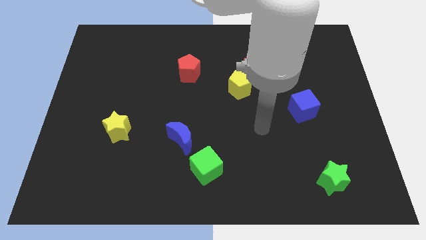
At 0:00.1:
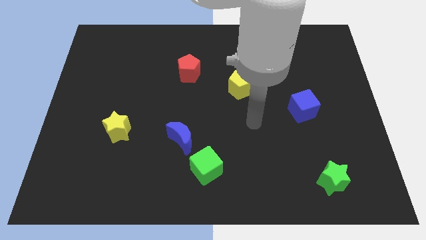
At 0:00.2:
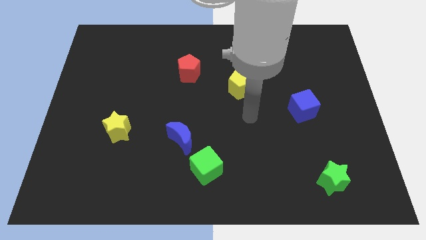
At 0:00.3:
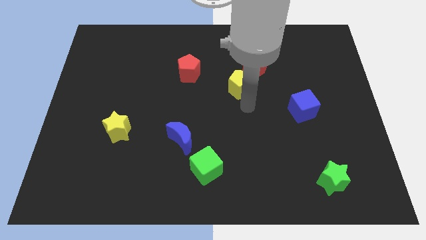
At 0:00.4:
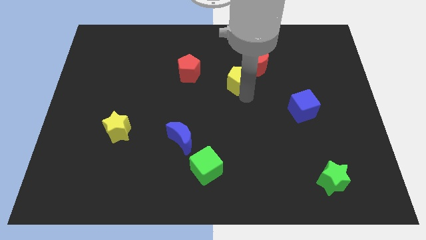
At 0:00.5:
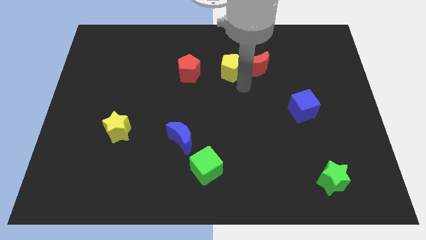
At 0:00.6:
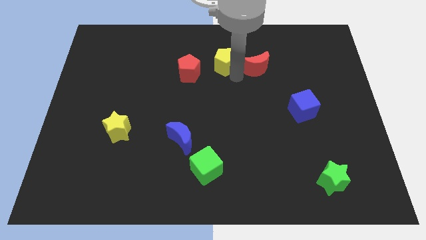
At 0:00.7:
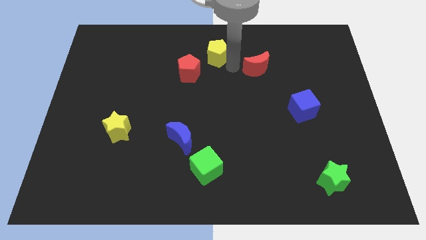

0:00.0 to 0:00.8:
separate the red moon from the yellow pentagon

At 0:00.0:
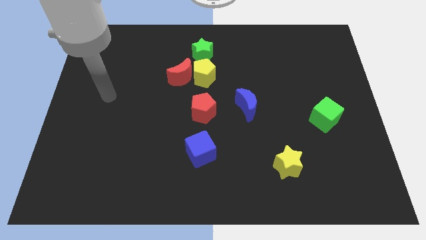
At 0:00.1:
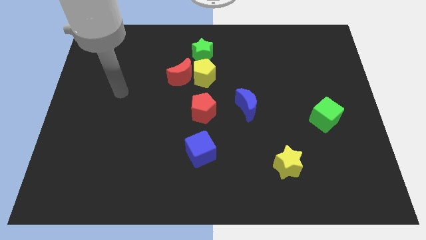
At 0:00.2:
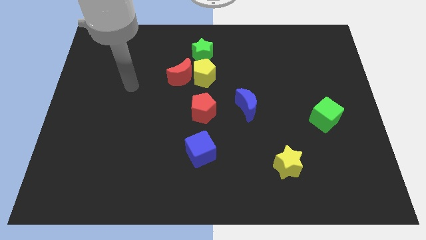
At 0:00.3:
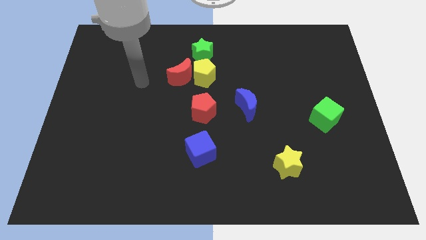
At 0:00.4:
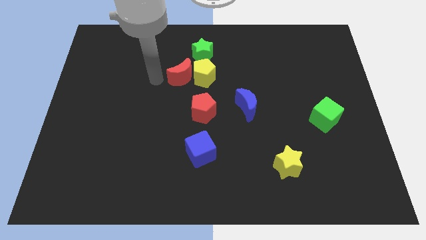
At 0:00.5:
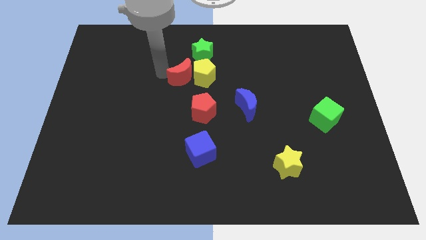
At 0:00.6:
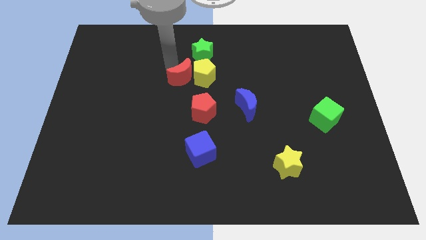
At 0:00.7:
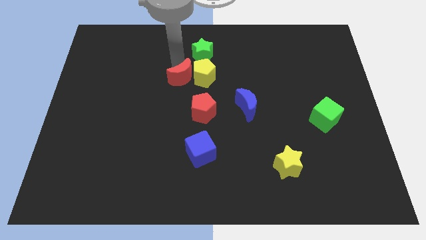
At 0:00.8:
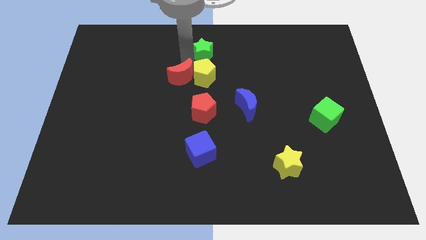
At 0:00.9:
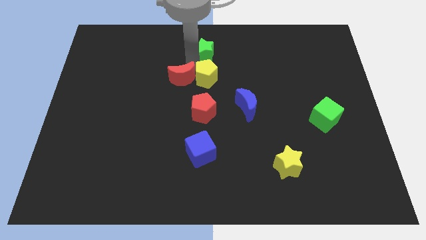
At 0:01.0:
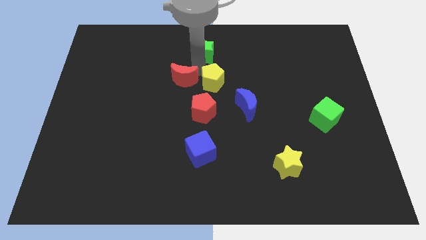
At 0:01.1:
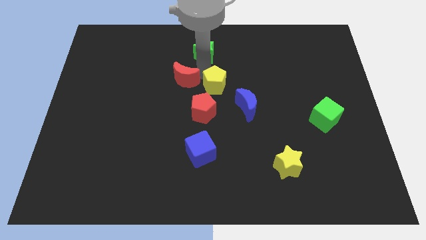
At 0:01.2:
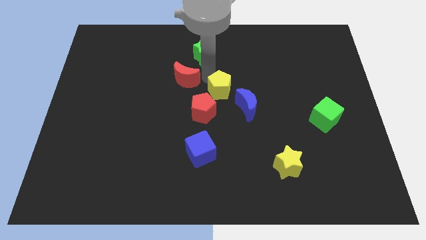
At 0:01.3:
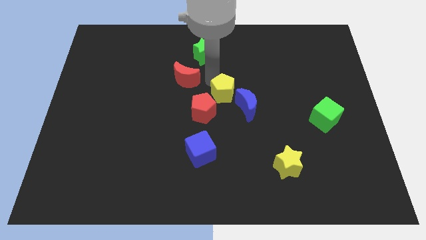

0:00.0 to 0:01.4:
pull the yellow pentagon apart from the red moon and green star

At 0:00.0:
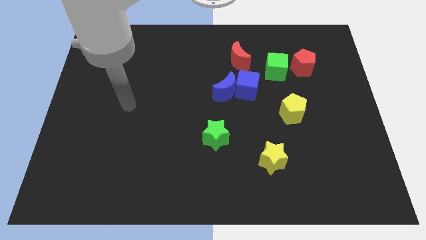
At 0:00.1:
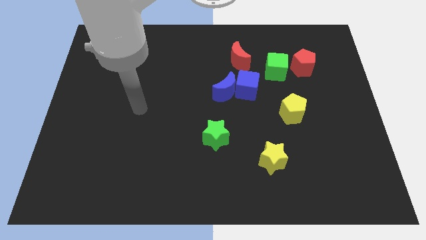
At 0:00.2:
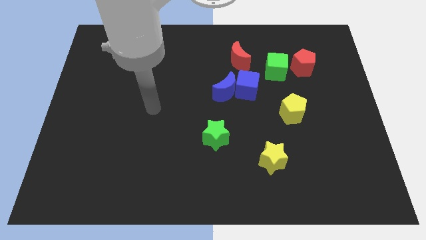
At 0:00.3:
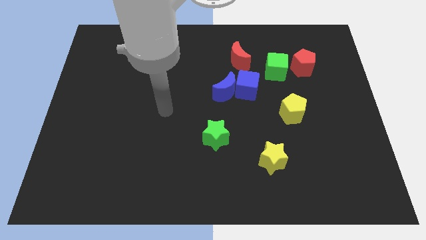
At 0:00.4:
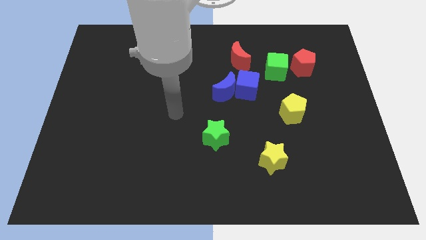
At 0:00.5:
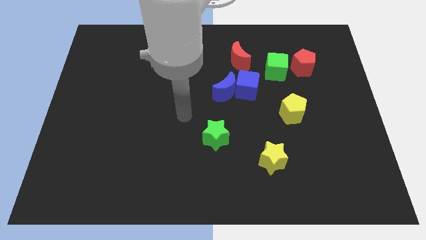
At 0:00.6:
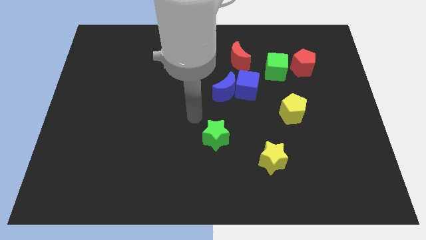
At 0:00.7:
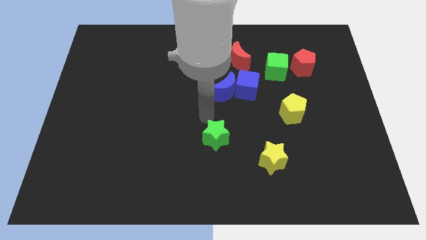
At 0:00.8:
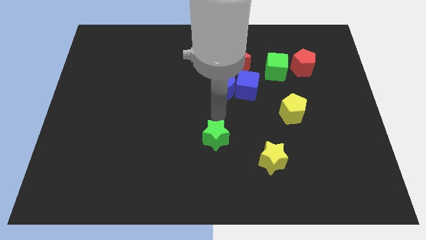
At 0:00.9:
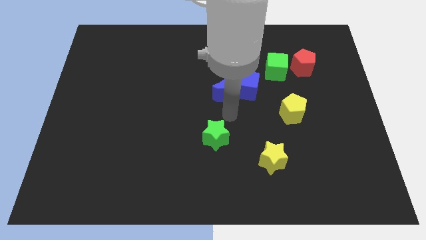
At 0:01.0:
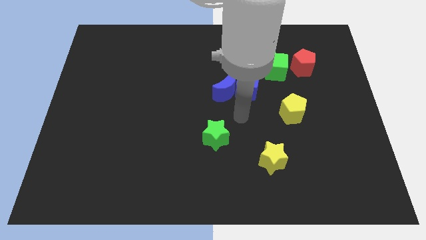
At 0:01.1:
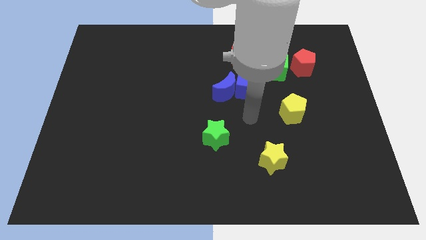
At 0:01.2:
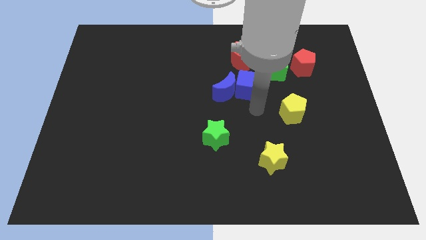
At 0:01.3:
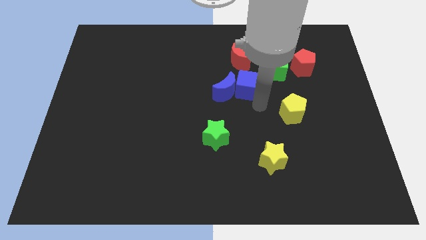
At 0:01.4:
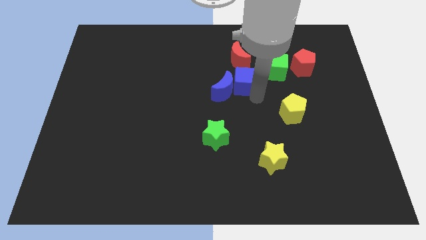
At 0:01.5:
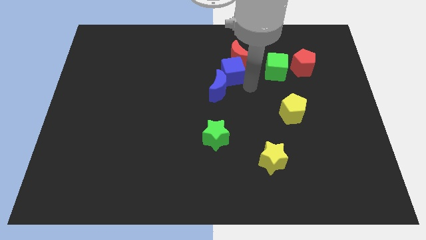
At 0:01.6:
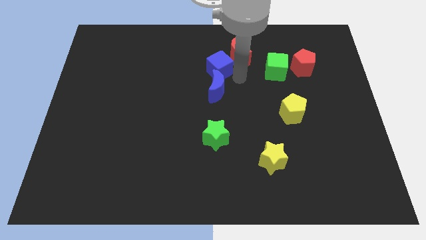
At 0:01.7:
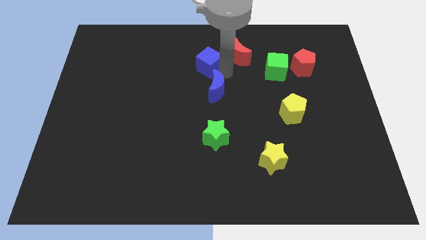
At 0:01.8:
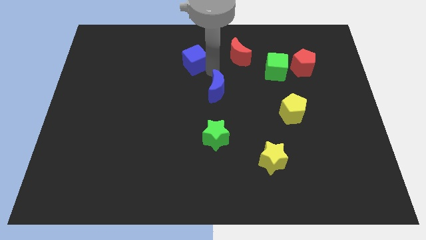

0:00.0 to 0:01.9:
move the blue moon away from the blue cube

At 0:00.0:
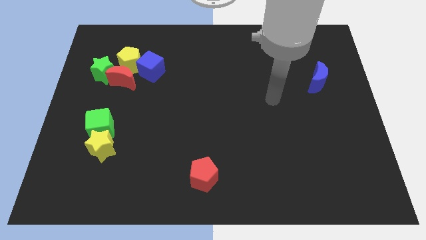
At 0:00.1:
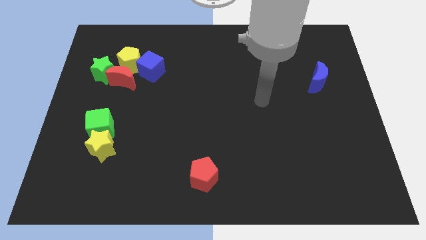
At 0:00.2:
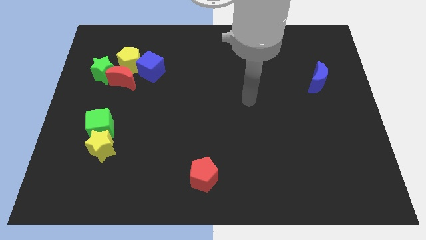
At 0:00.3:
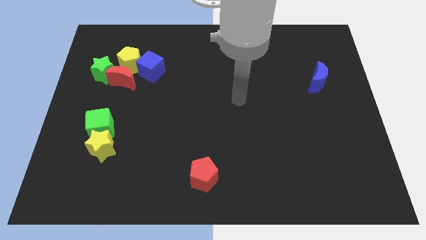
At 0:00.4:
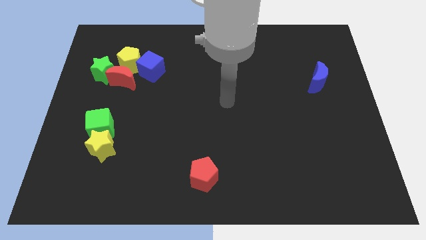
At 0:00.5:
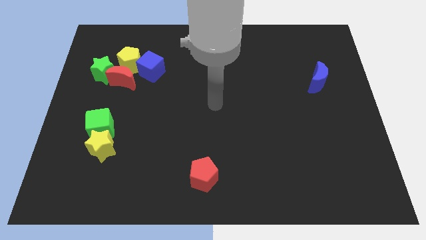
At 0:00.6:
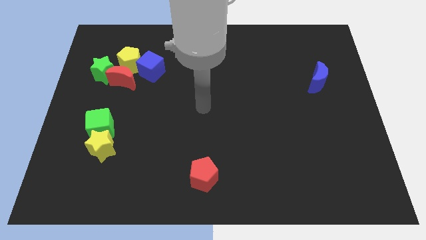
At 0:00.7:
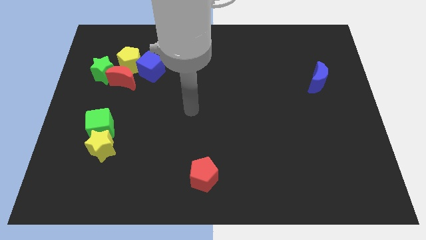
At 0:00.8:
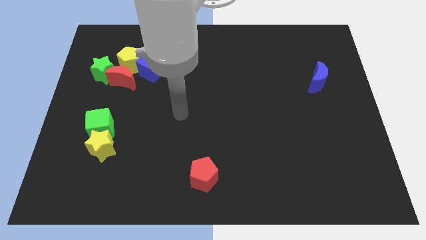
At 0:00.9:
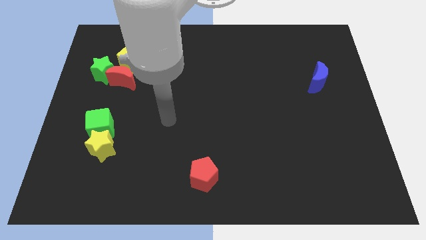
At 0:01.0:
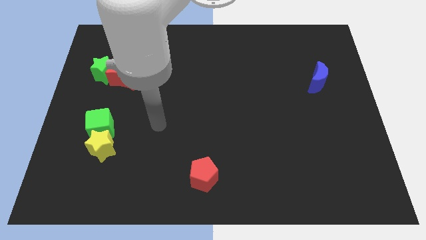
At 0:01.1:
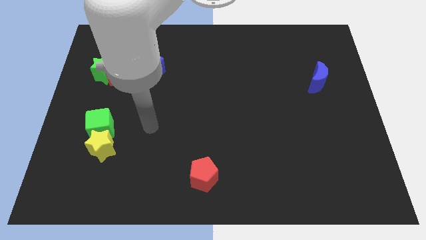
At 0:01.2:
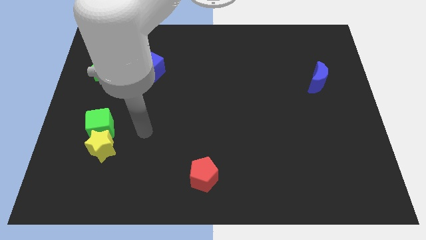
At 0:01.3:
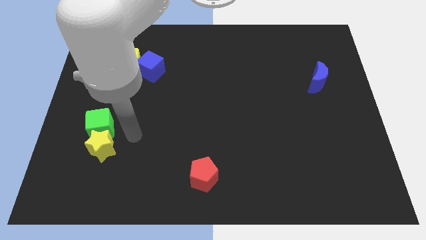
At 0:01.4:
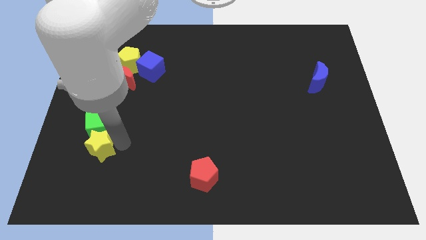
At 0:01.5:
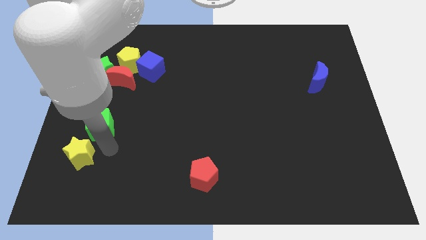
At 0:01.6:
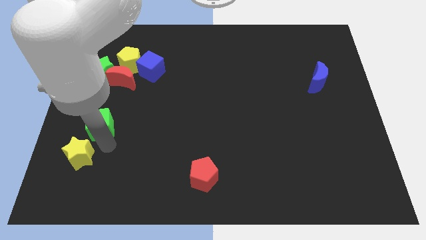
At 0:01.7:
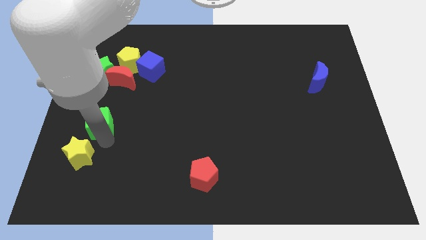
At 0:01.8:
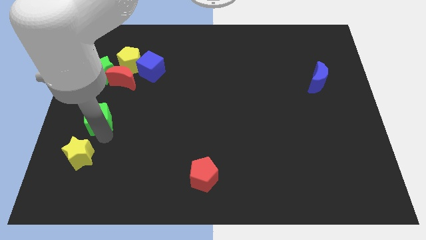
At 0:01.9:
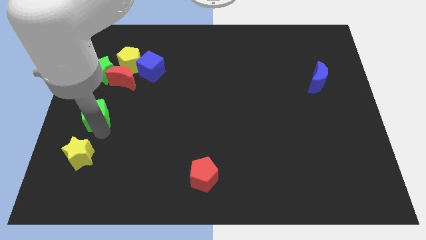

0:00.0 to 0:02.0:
move the green cube away from the yellow star

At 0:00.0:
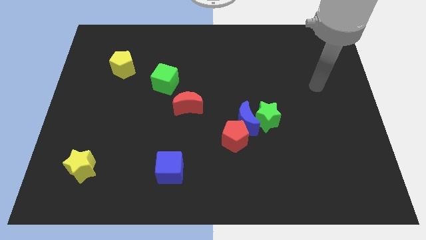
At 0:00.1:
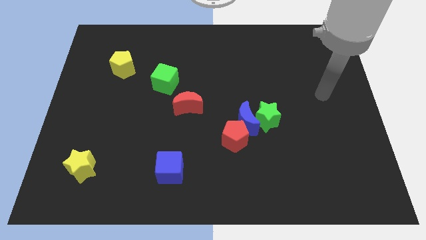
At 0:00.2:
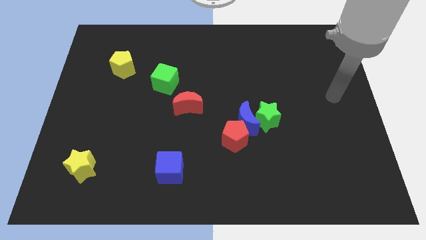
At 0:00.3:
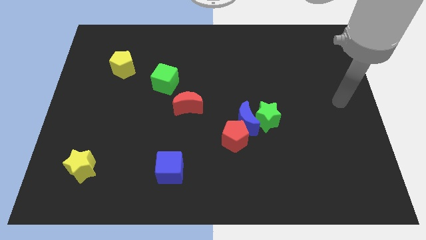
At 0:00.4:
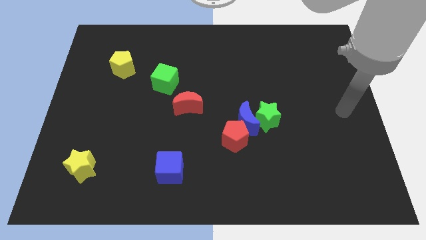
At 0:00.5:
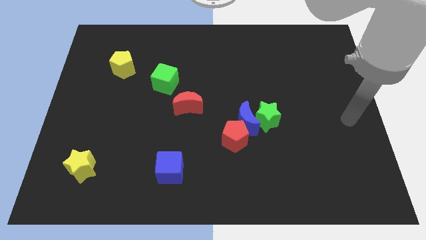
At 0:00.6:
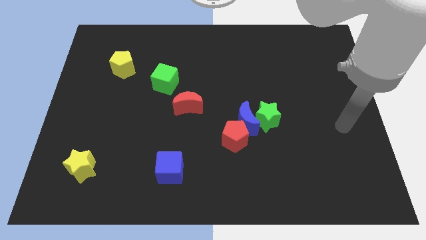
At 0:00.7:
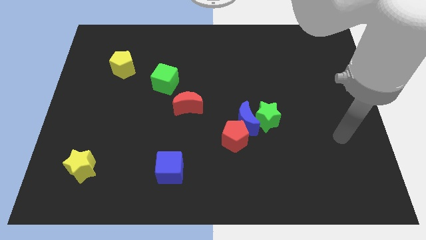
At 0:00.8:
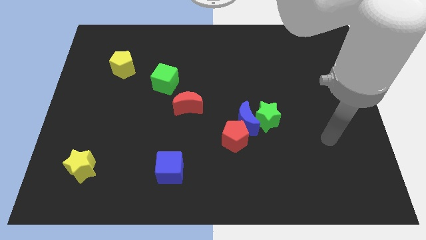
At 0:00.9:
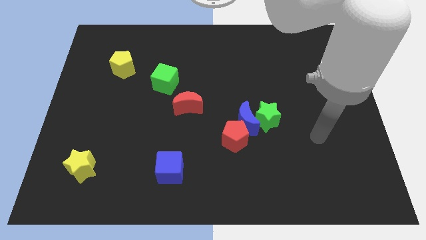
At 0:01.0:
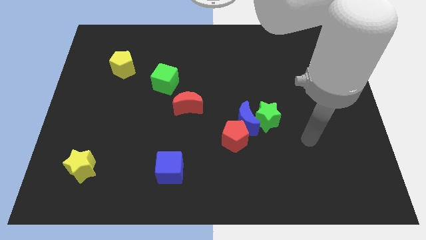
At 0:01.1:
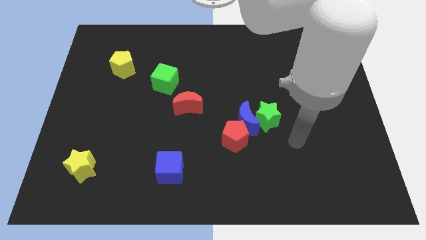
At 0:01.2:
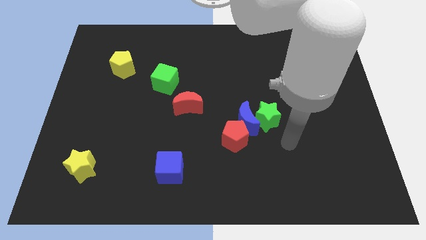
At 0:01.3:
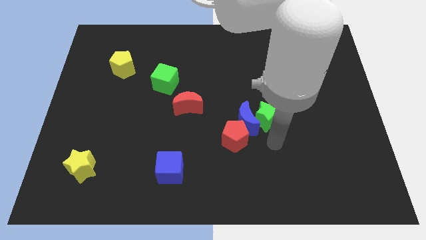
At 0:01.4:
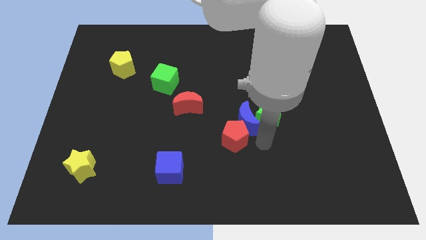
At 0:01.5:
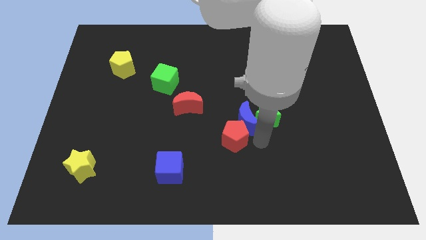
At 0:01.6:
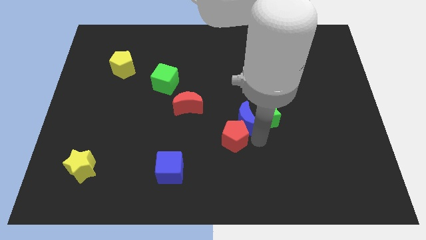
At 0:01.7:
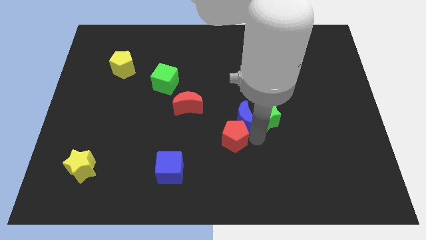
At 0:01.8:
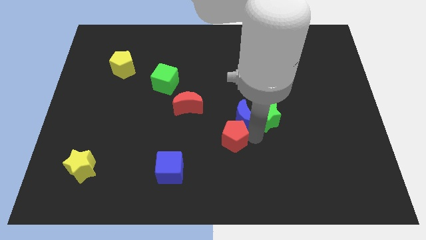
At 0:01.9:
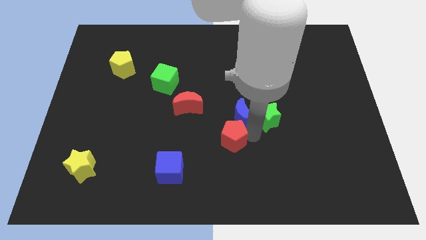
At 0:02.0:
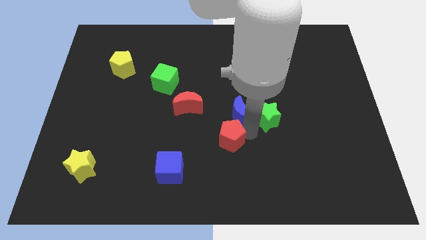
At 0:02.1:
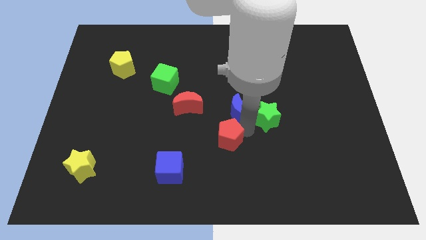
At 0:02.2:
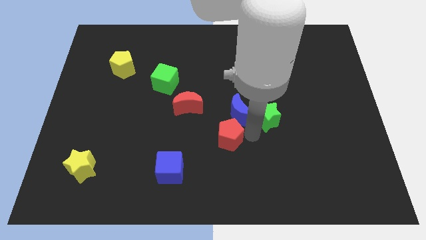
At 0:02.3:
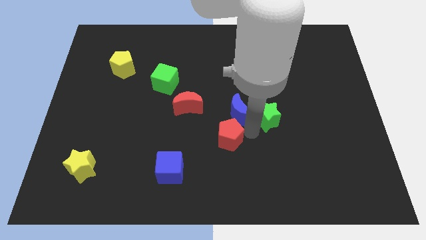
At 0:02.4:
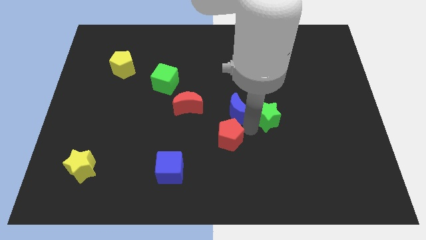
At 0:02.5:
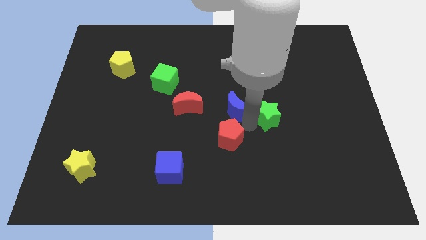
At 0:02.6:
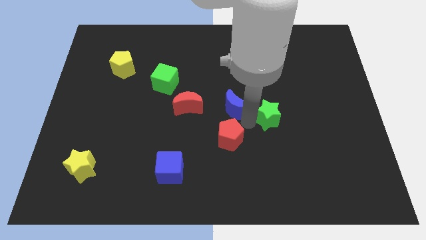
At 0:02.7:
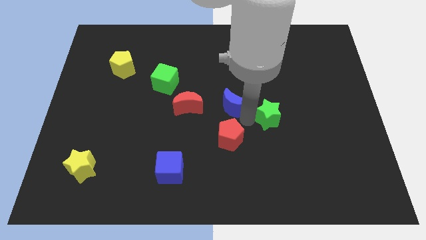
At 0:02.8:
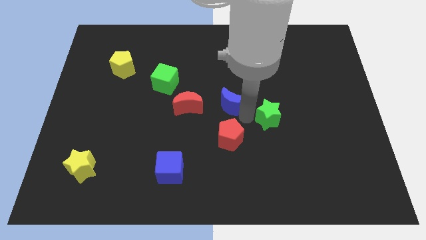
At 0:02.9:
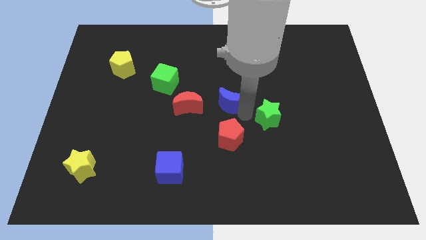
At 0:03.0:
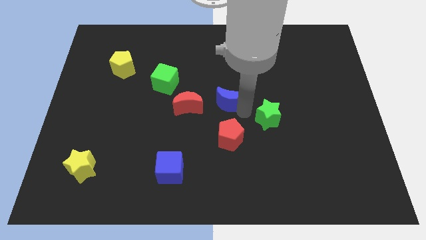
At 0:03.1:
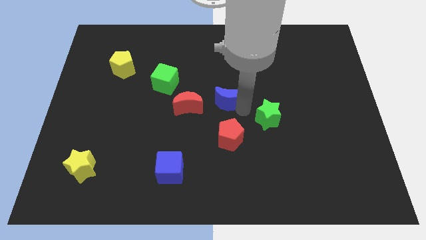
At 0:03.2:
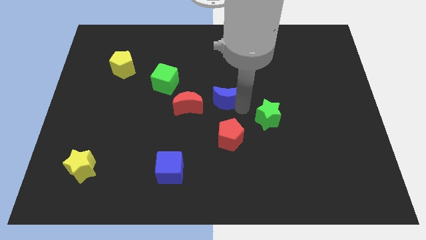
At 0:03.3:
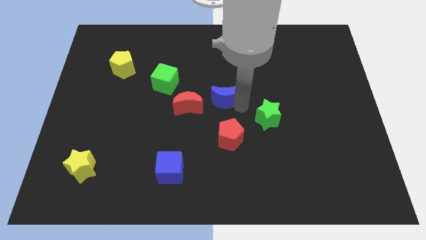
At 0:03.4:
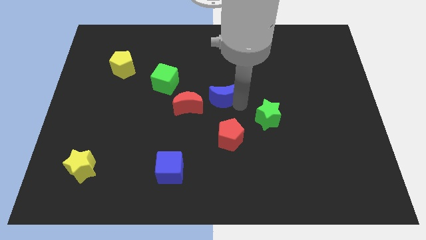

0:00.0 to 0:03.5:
pull the blue moon apart from the green star and red pentagon
